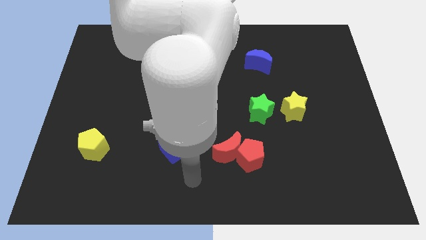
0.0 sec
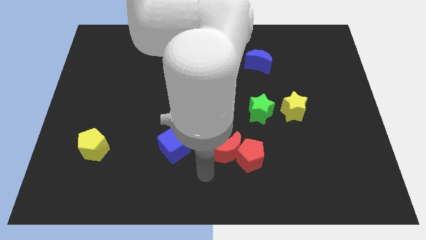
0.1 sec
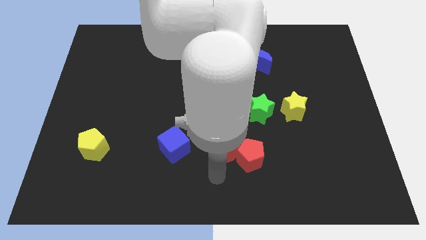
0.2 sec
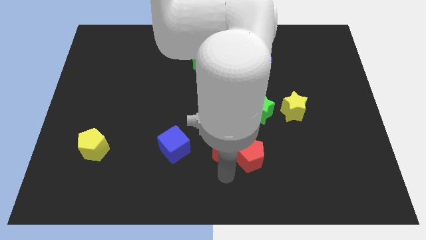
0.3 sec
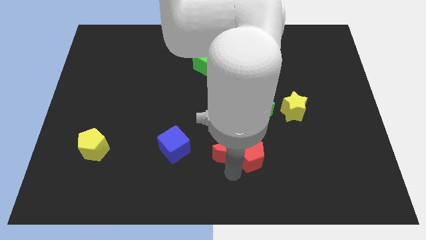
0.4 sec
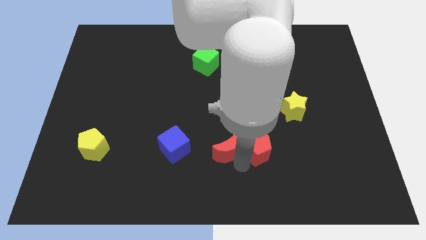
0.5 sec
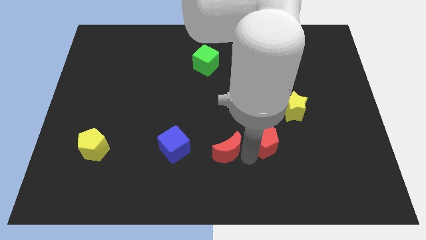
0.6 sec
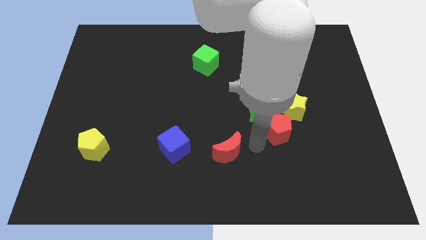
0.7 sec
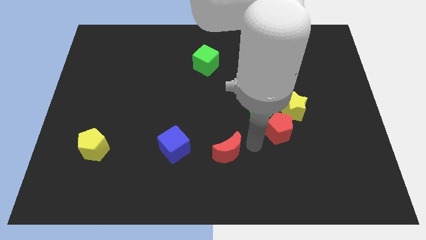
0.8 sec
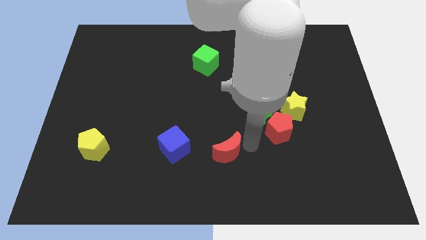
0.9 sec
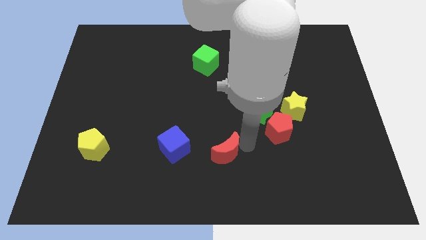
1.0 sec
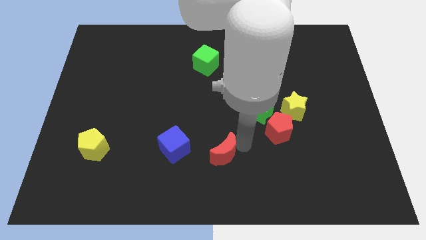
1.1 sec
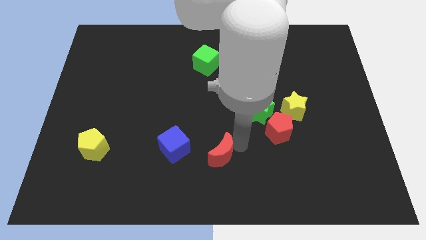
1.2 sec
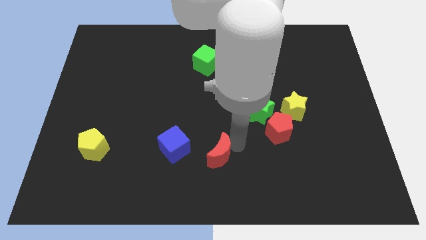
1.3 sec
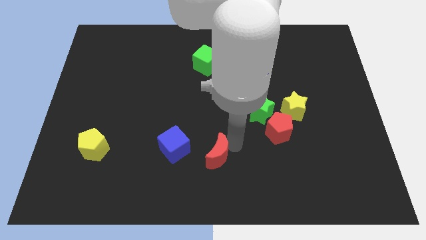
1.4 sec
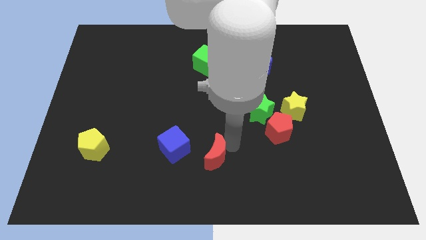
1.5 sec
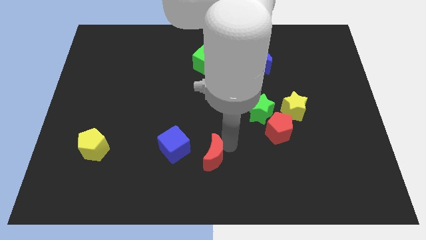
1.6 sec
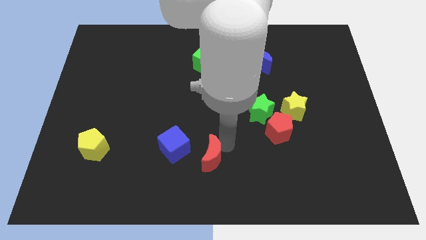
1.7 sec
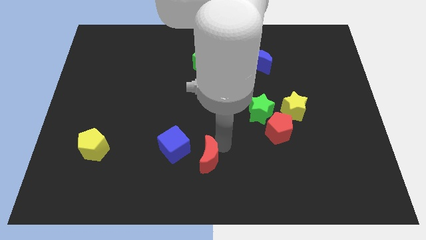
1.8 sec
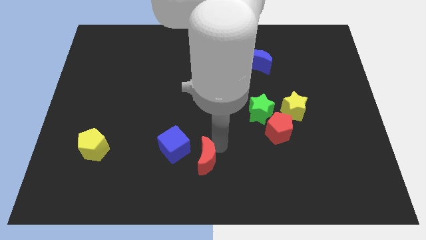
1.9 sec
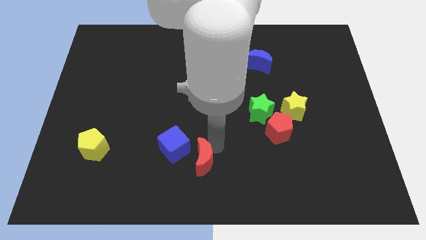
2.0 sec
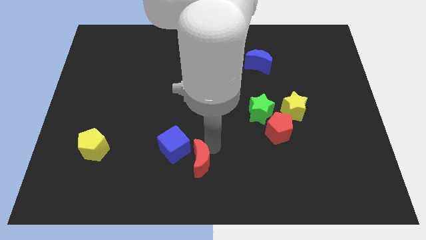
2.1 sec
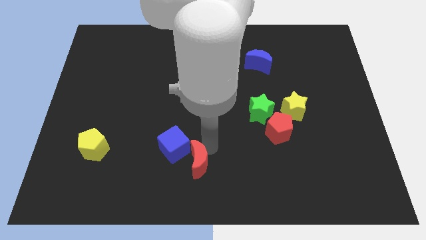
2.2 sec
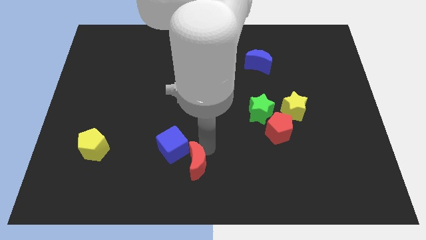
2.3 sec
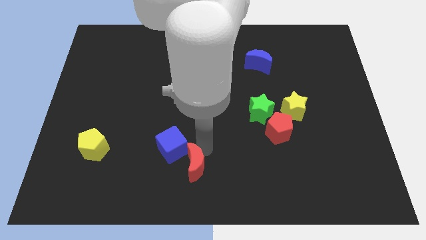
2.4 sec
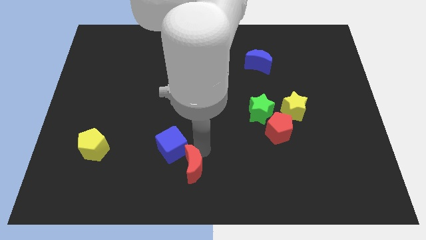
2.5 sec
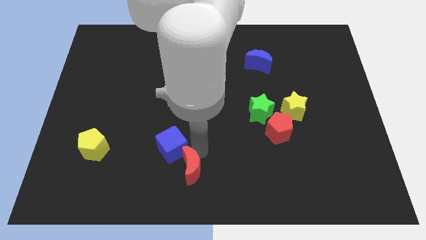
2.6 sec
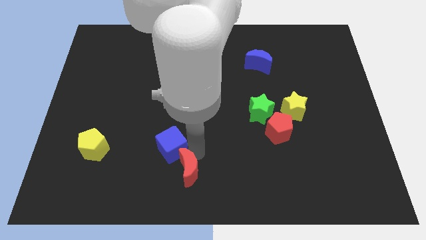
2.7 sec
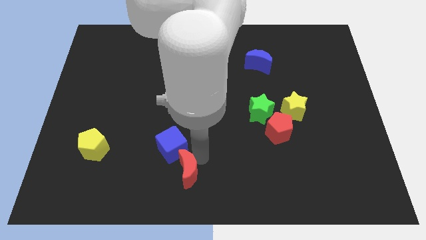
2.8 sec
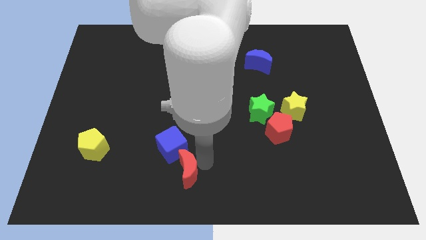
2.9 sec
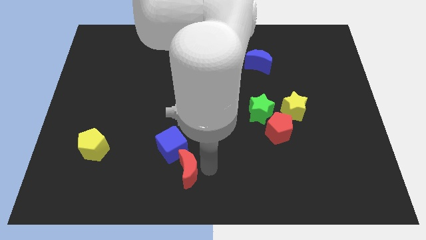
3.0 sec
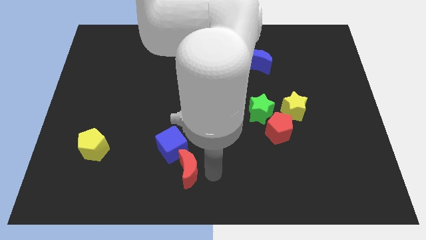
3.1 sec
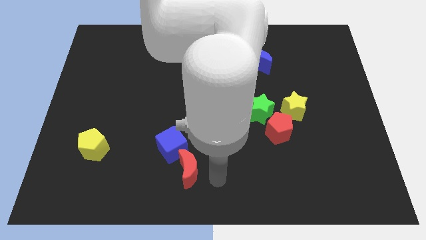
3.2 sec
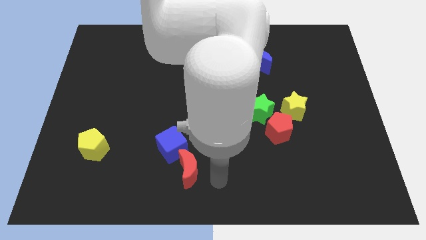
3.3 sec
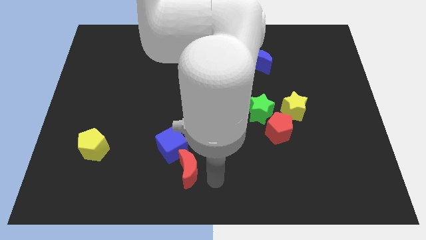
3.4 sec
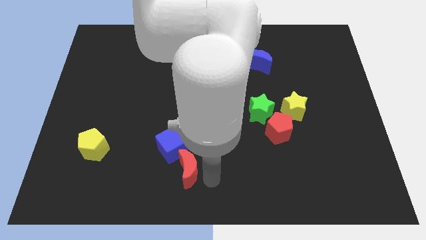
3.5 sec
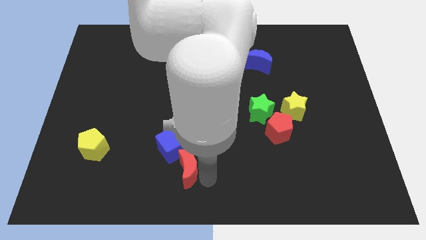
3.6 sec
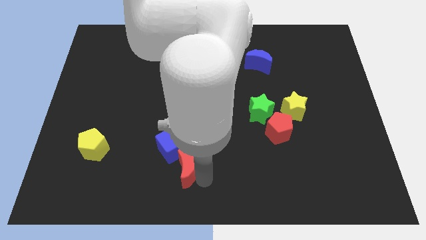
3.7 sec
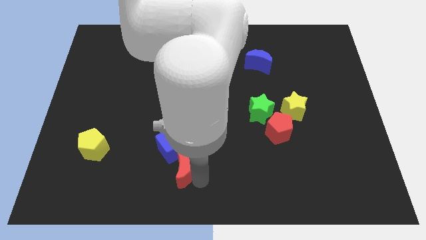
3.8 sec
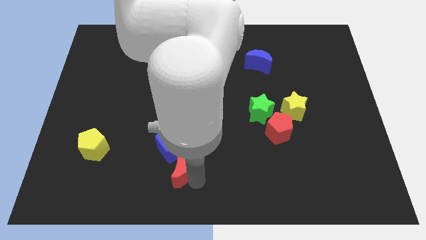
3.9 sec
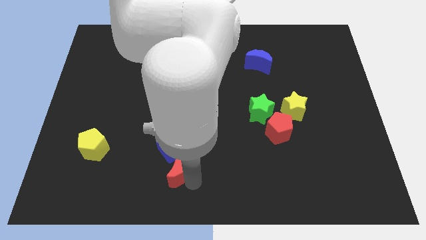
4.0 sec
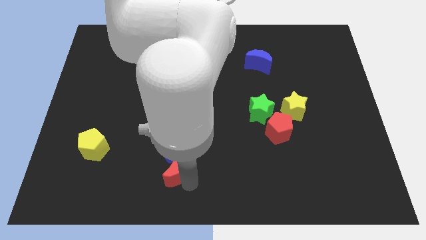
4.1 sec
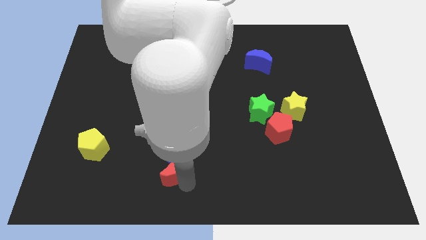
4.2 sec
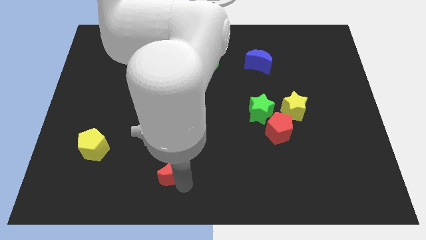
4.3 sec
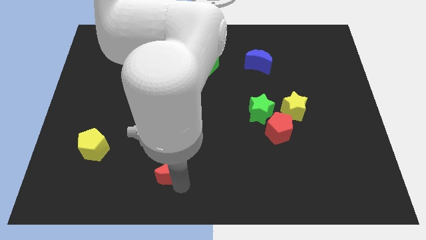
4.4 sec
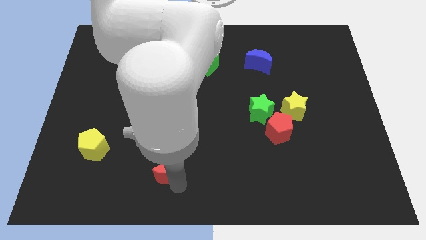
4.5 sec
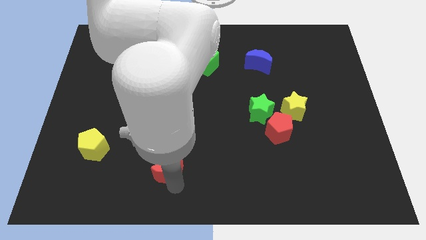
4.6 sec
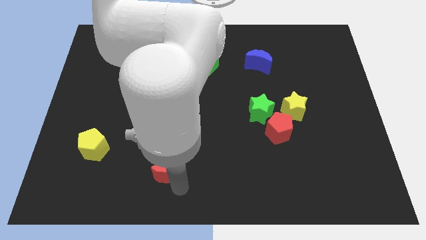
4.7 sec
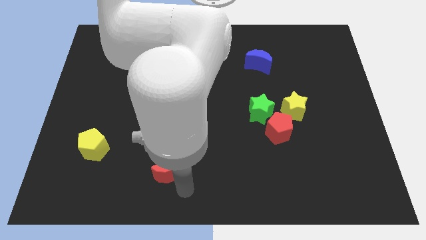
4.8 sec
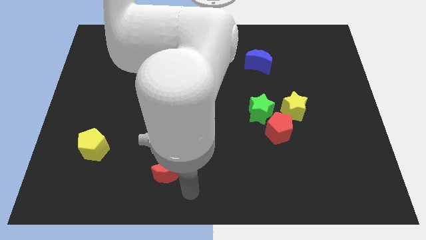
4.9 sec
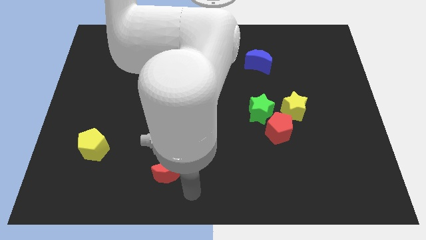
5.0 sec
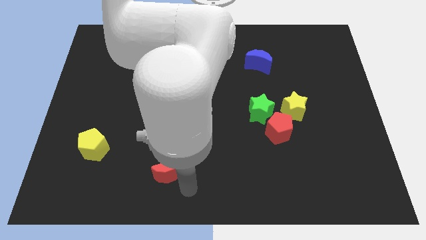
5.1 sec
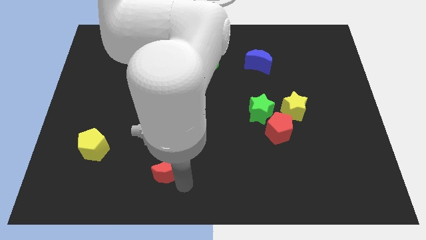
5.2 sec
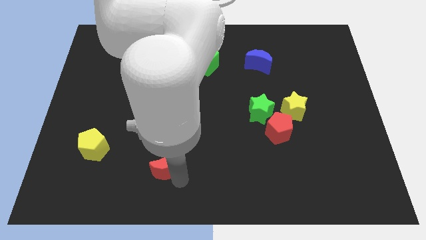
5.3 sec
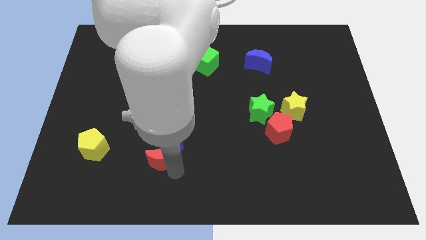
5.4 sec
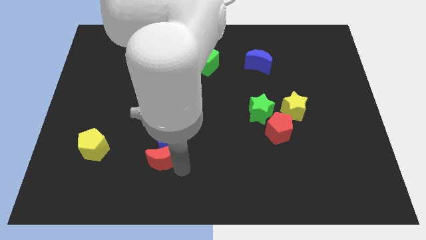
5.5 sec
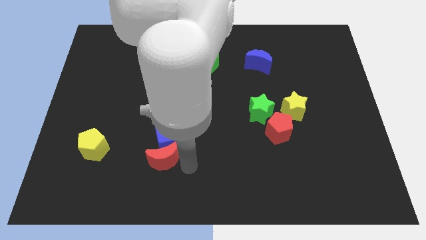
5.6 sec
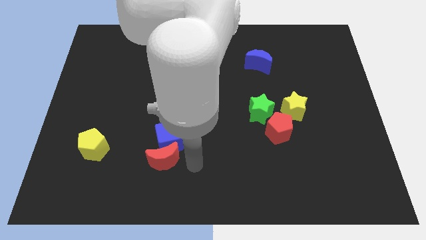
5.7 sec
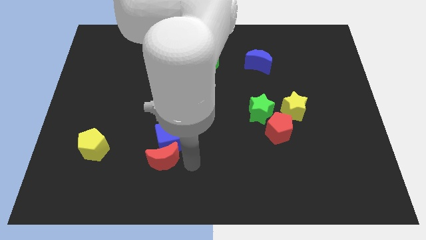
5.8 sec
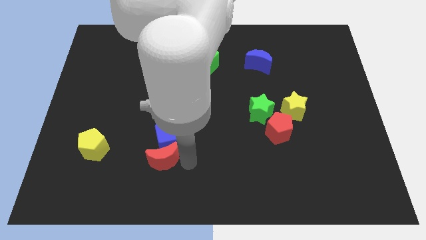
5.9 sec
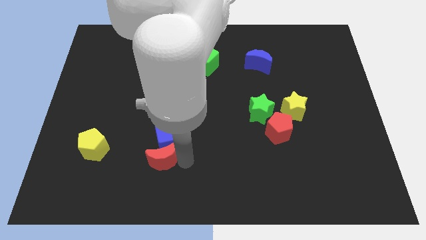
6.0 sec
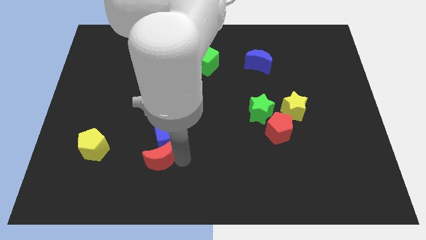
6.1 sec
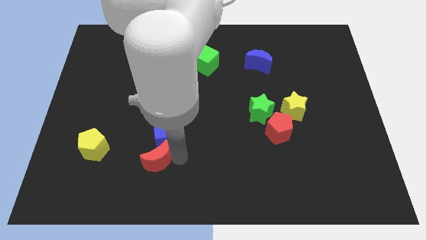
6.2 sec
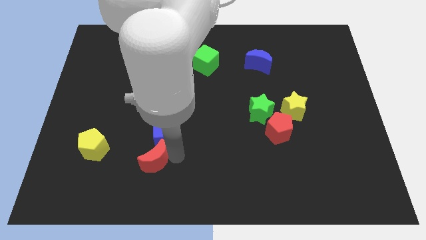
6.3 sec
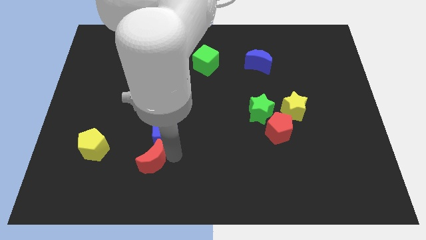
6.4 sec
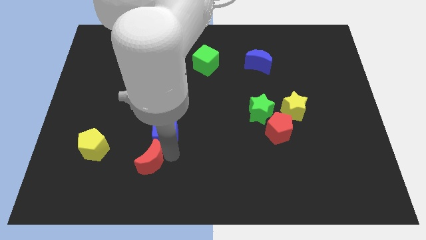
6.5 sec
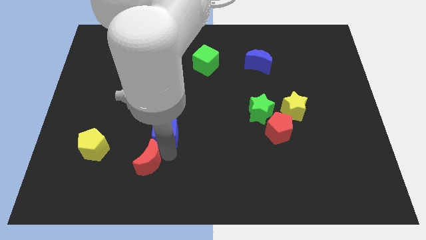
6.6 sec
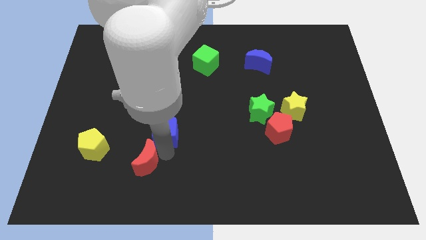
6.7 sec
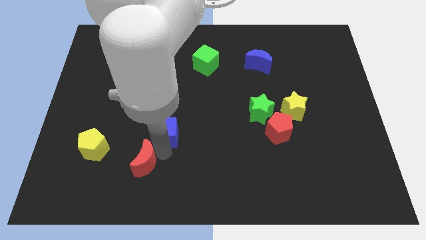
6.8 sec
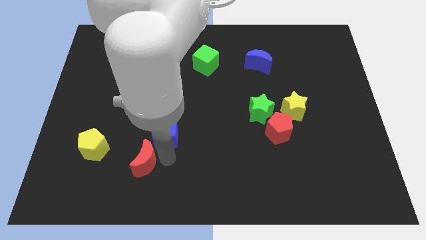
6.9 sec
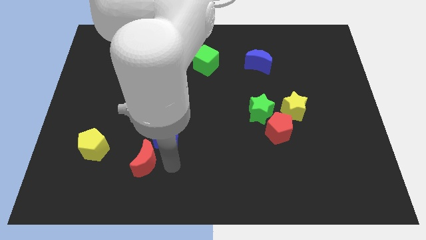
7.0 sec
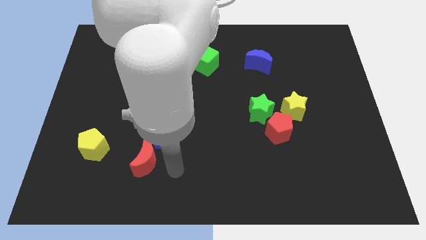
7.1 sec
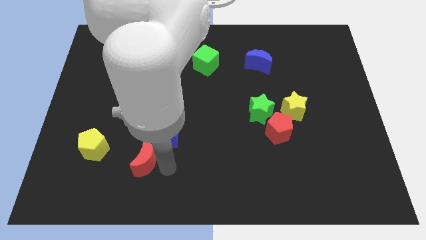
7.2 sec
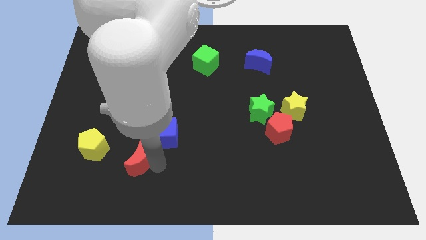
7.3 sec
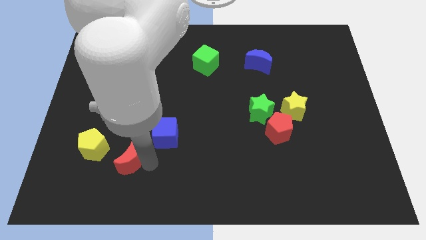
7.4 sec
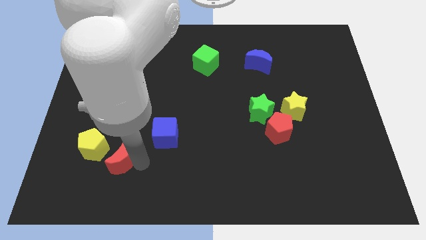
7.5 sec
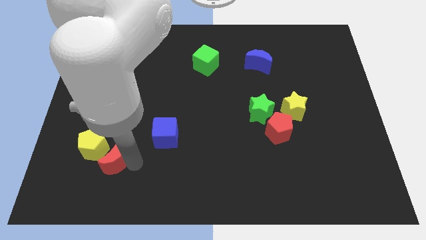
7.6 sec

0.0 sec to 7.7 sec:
put the red moon to the yellow pentagon
